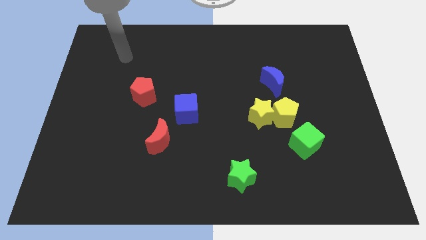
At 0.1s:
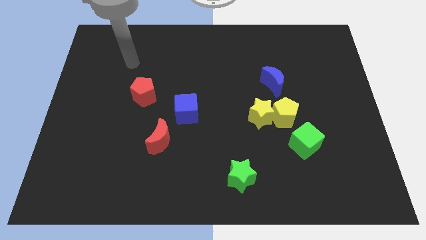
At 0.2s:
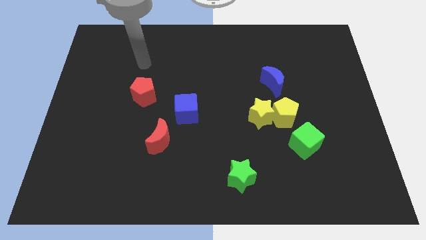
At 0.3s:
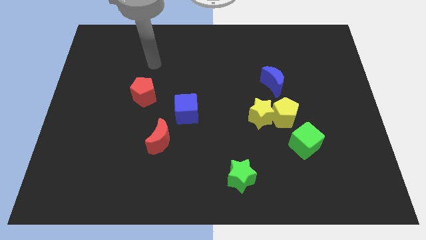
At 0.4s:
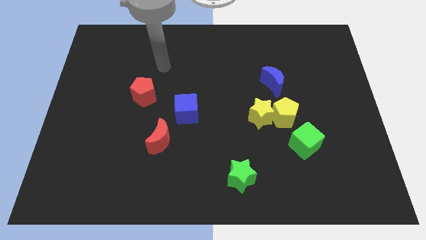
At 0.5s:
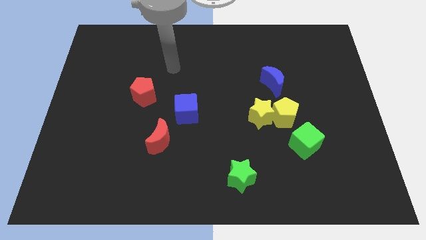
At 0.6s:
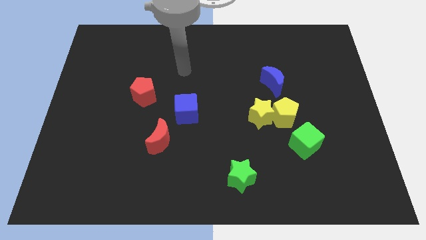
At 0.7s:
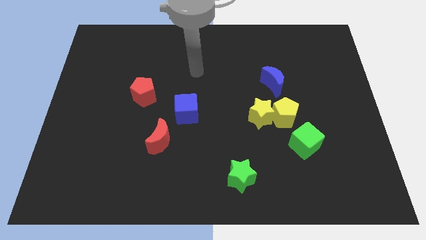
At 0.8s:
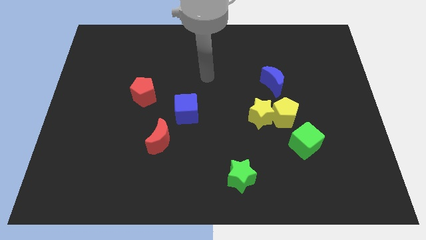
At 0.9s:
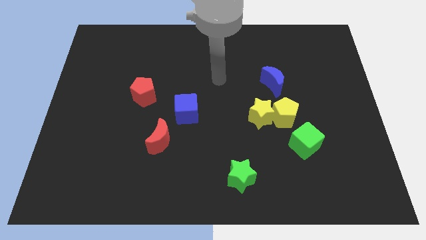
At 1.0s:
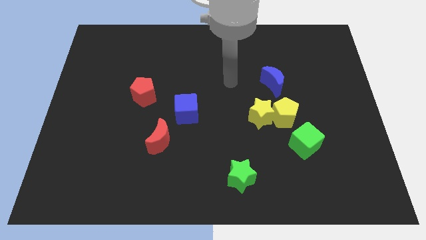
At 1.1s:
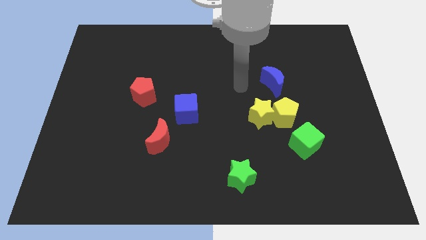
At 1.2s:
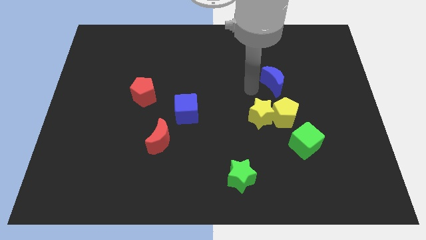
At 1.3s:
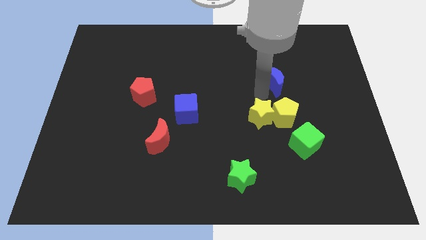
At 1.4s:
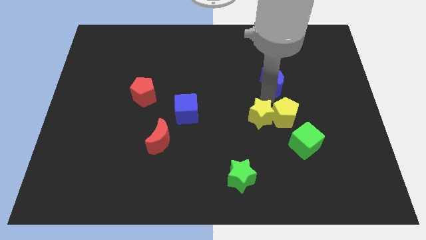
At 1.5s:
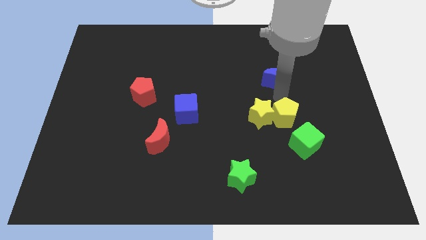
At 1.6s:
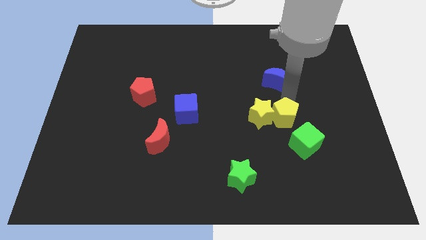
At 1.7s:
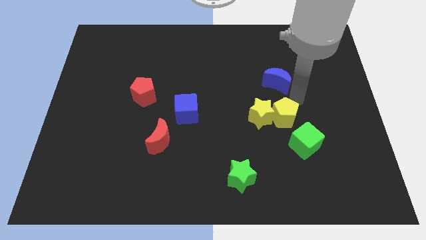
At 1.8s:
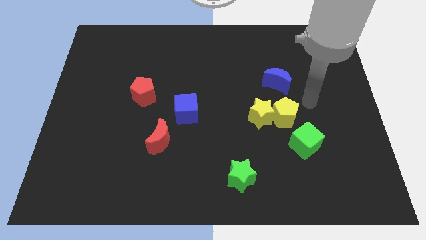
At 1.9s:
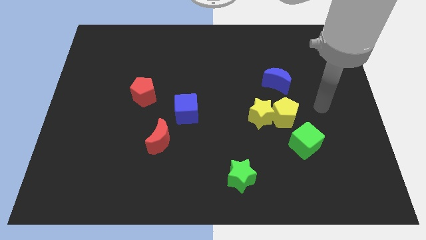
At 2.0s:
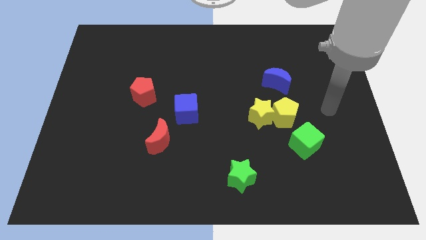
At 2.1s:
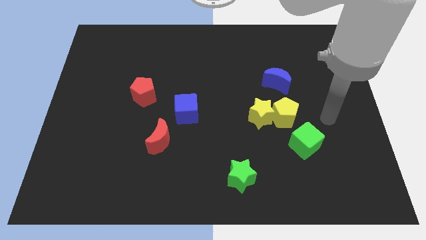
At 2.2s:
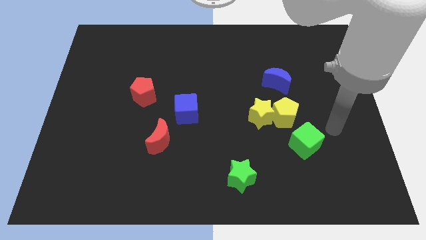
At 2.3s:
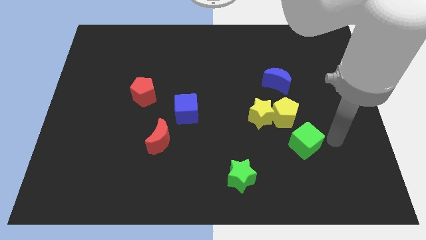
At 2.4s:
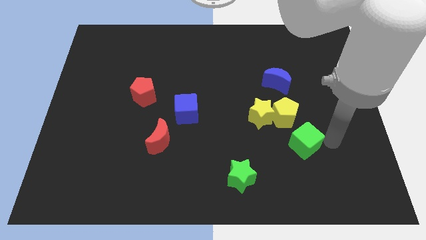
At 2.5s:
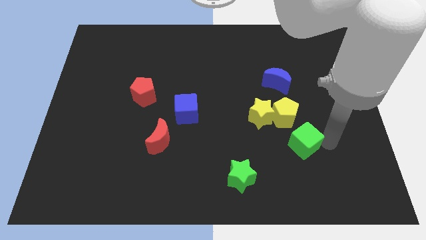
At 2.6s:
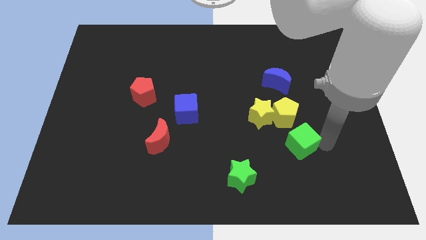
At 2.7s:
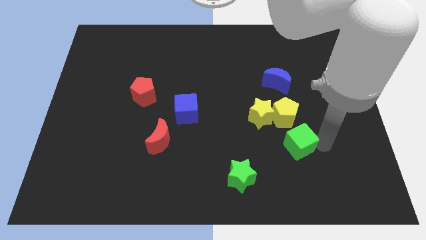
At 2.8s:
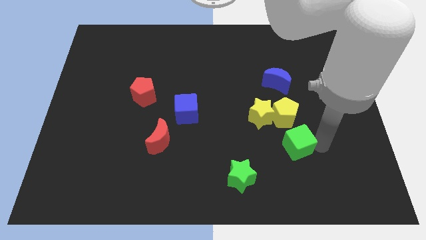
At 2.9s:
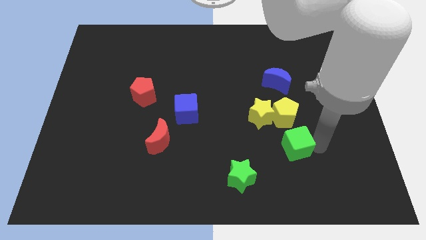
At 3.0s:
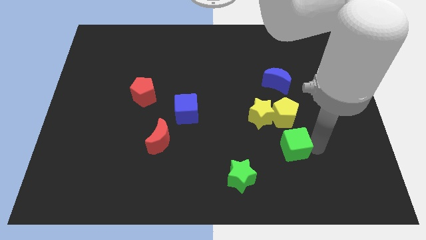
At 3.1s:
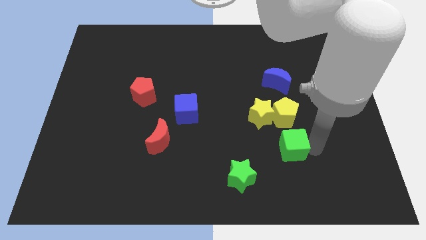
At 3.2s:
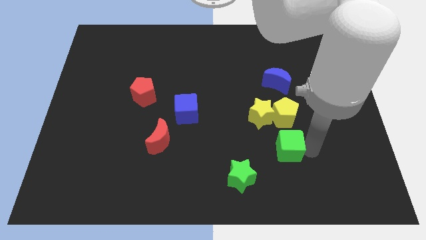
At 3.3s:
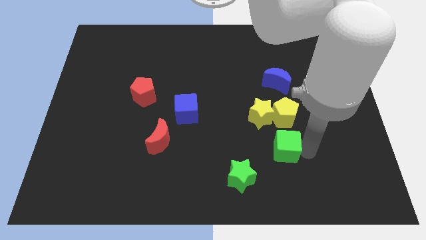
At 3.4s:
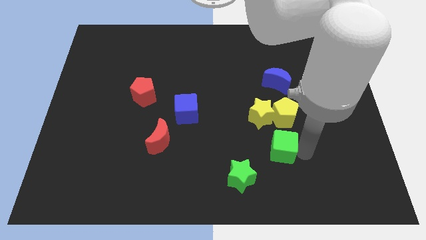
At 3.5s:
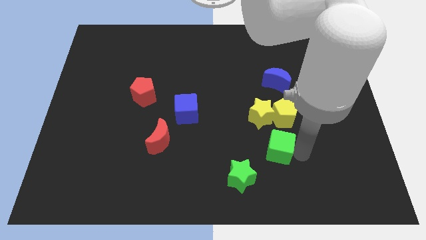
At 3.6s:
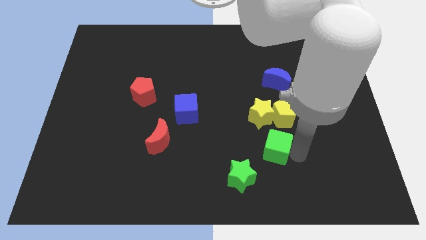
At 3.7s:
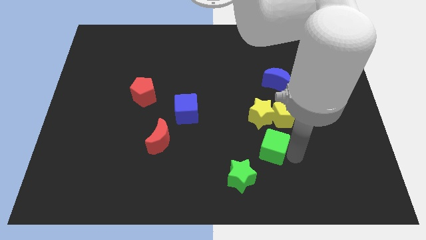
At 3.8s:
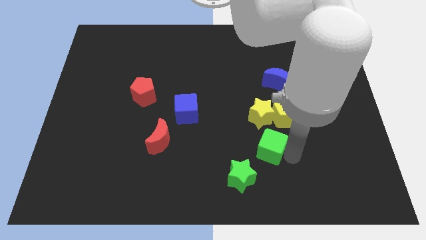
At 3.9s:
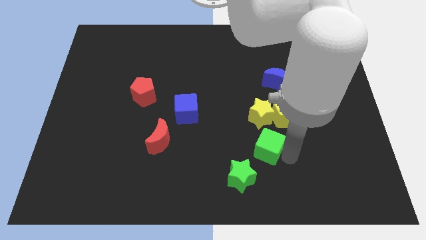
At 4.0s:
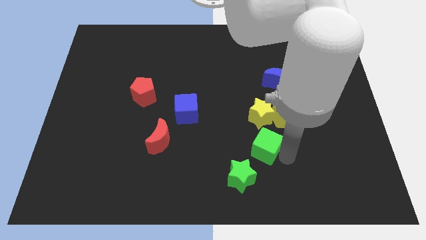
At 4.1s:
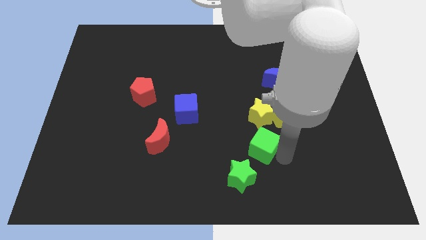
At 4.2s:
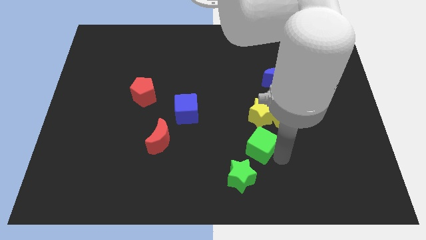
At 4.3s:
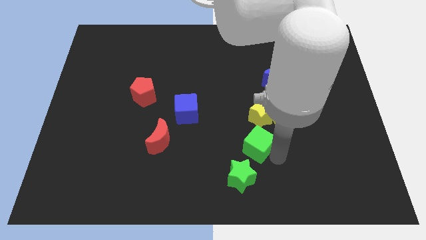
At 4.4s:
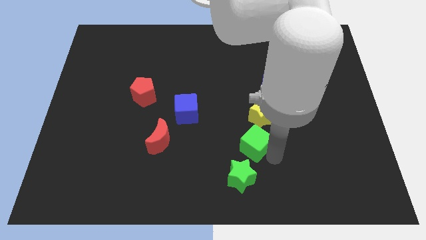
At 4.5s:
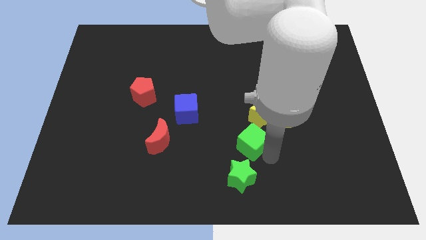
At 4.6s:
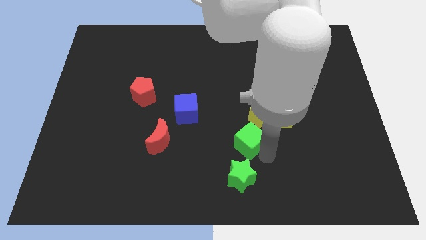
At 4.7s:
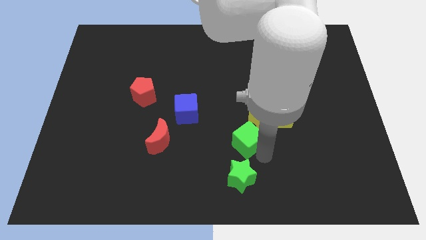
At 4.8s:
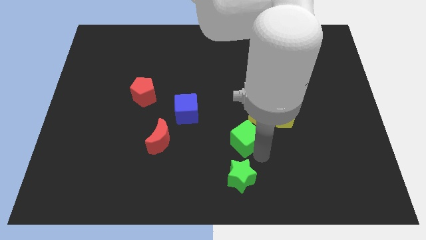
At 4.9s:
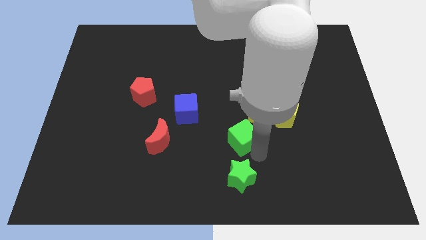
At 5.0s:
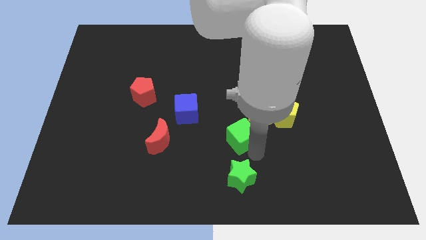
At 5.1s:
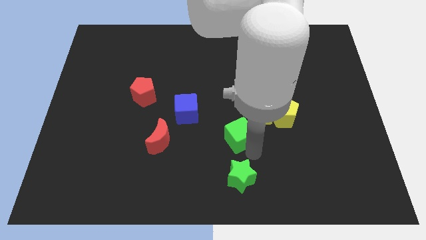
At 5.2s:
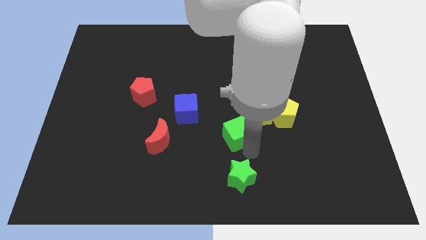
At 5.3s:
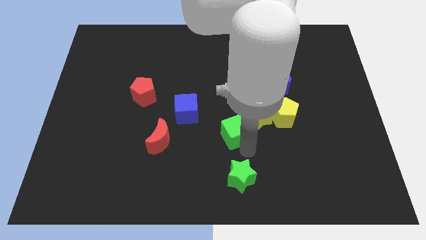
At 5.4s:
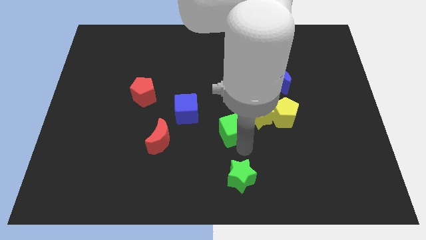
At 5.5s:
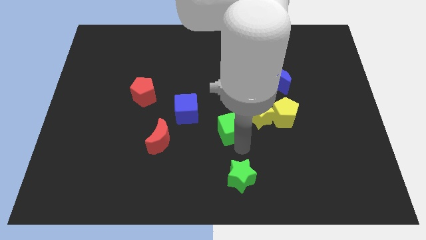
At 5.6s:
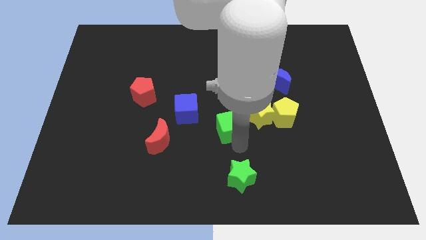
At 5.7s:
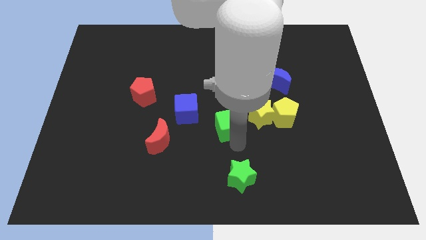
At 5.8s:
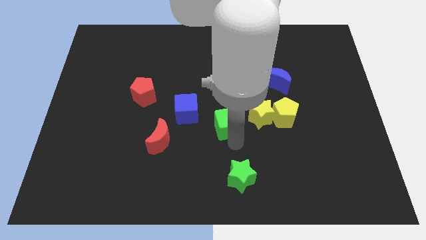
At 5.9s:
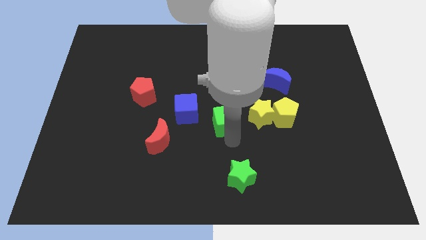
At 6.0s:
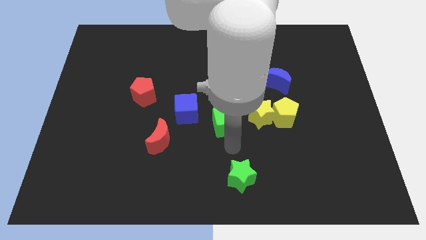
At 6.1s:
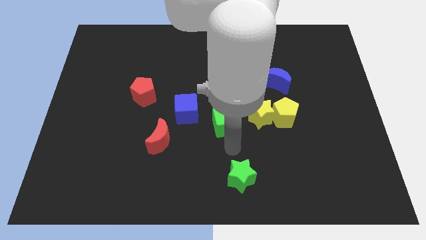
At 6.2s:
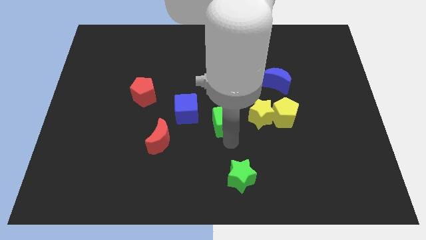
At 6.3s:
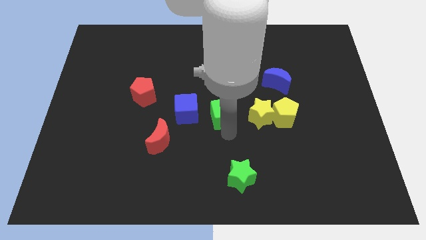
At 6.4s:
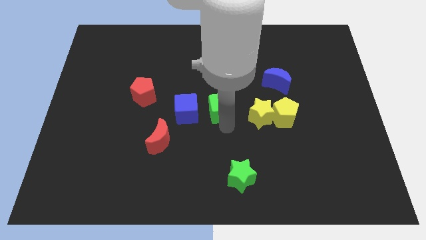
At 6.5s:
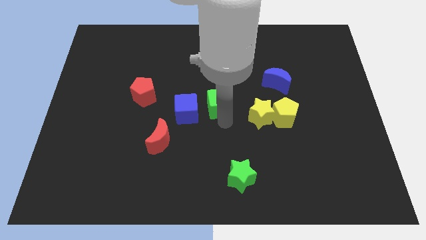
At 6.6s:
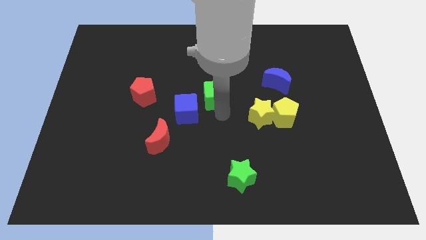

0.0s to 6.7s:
push the green cube upwards and to the left diagonally

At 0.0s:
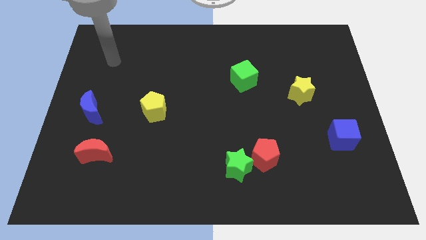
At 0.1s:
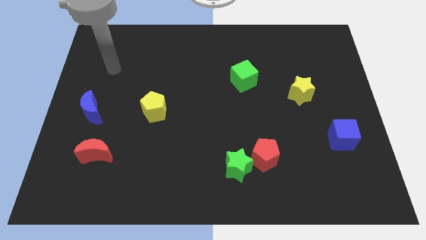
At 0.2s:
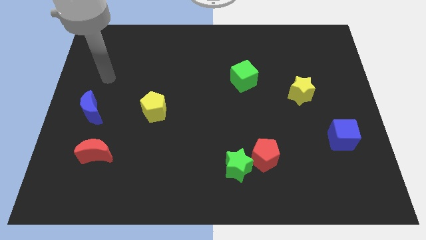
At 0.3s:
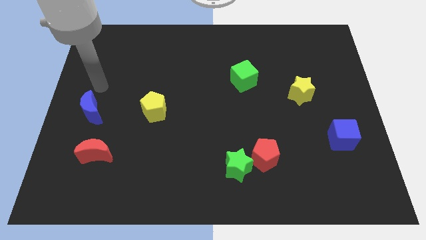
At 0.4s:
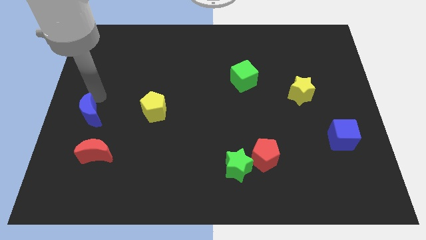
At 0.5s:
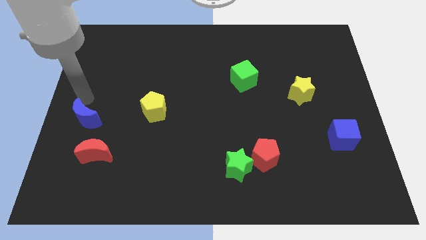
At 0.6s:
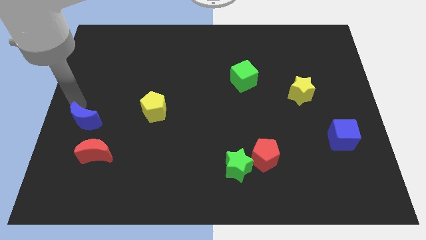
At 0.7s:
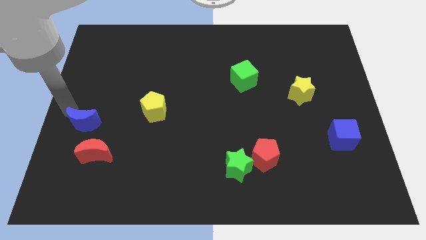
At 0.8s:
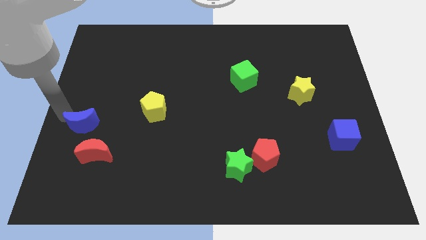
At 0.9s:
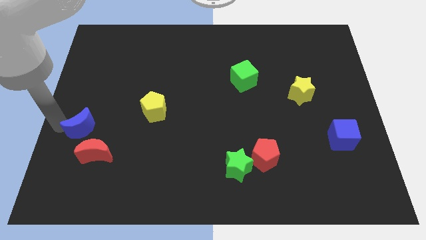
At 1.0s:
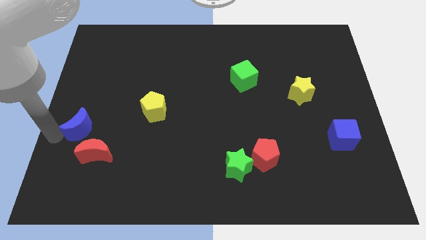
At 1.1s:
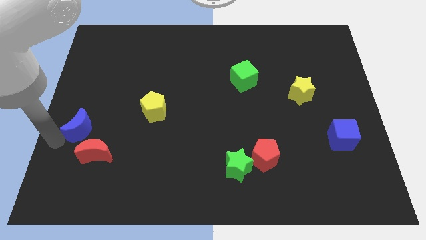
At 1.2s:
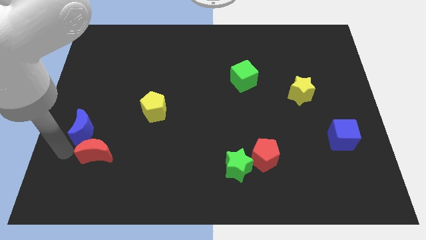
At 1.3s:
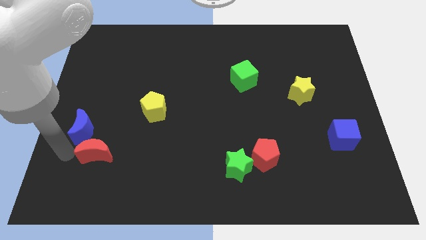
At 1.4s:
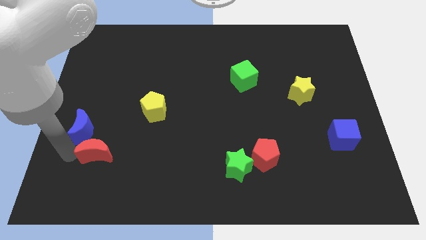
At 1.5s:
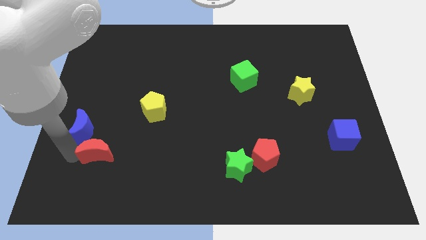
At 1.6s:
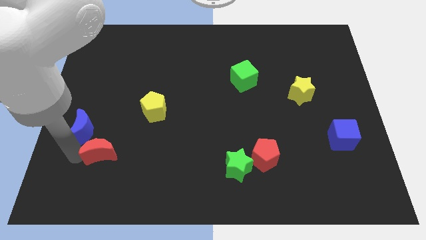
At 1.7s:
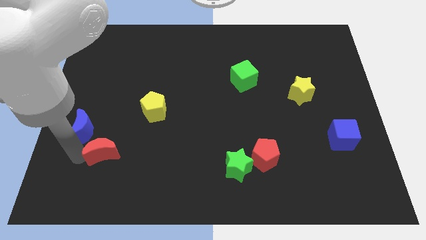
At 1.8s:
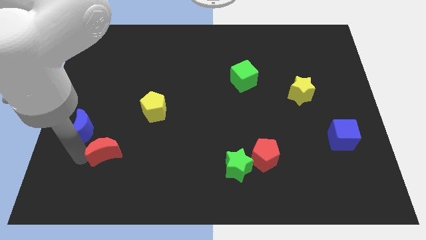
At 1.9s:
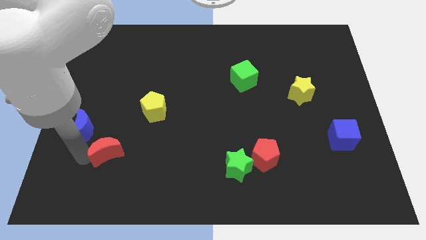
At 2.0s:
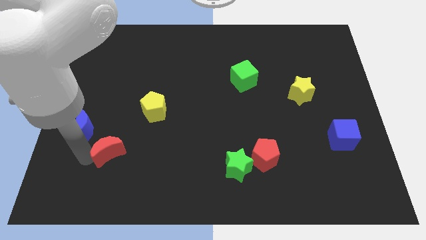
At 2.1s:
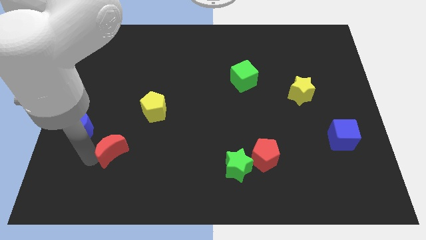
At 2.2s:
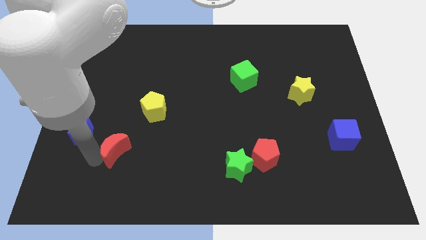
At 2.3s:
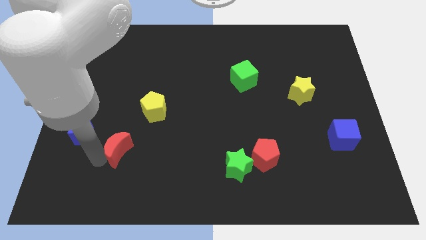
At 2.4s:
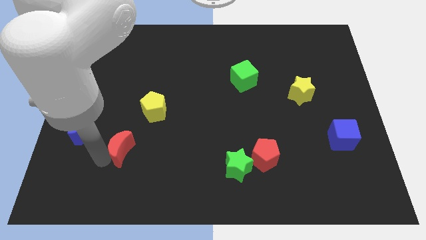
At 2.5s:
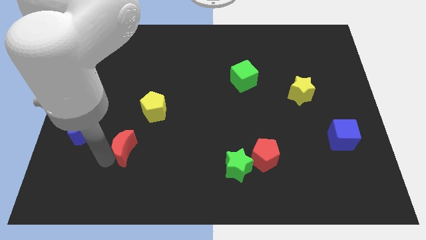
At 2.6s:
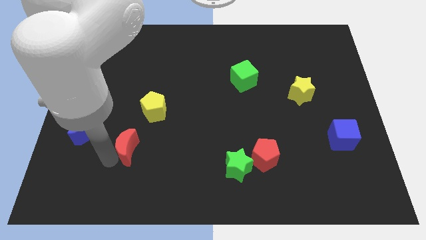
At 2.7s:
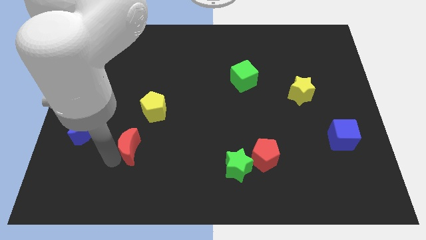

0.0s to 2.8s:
move the red moon a little bit to the right
